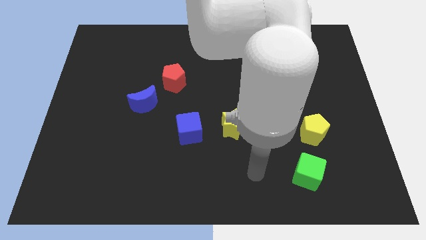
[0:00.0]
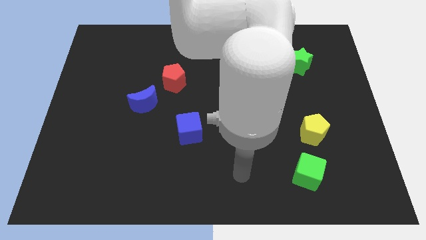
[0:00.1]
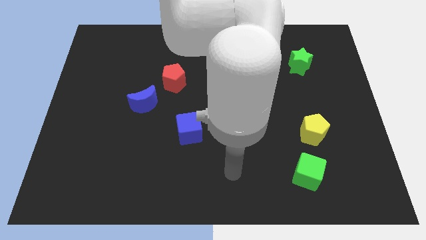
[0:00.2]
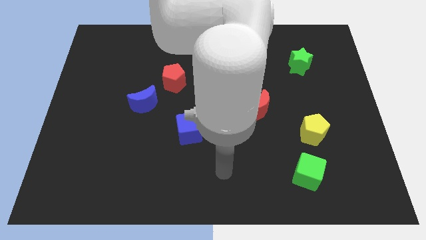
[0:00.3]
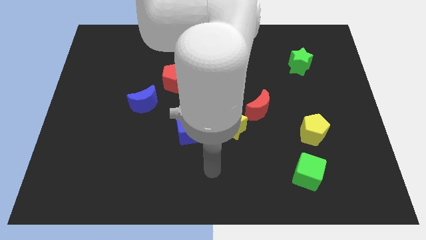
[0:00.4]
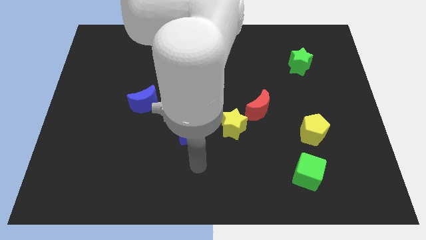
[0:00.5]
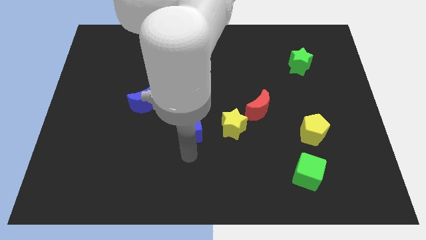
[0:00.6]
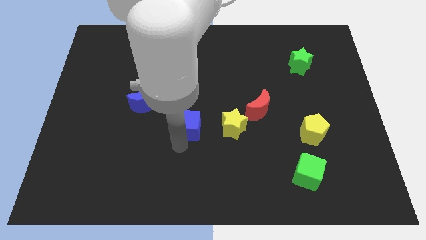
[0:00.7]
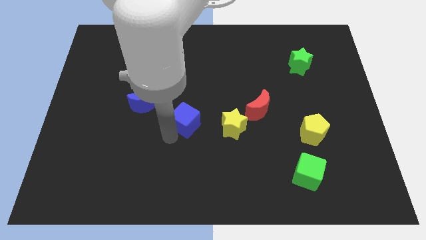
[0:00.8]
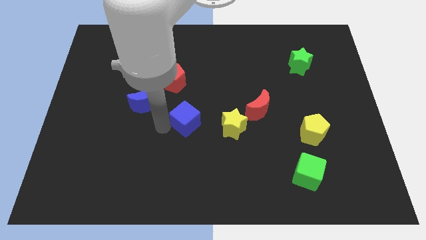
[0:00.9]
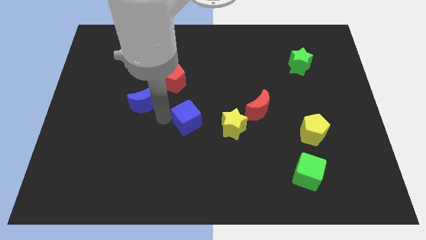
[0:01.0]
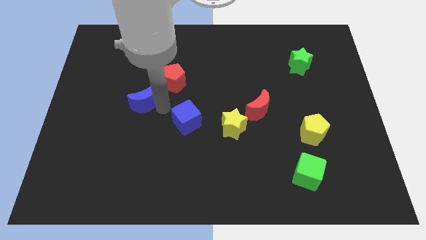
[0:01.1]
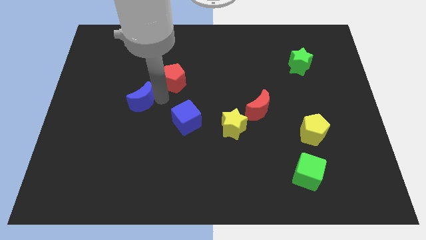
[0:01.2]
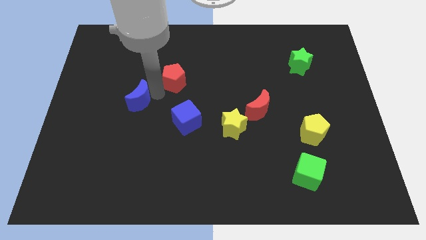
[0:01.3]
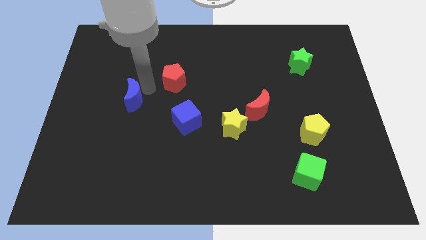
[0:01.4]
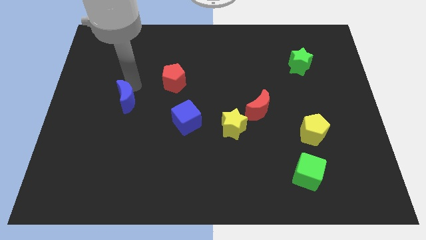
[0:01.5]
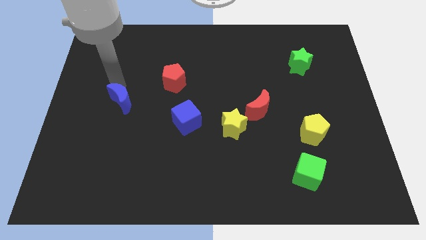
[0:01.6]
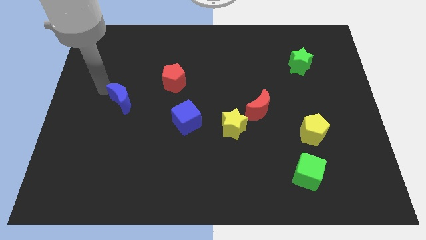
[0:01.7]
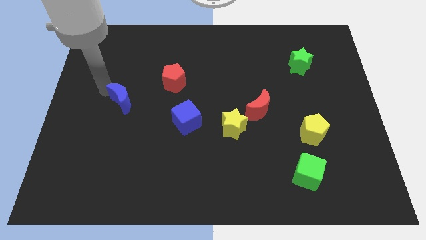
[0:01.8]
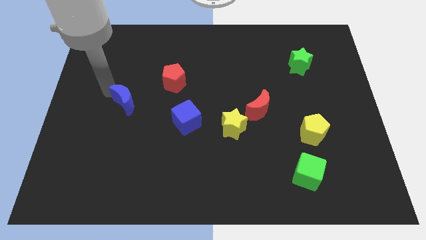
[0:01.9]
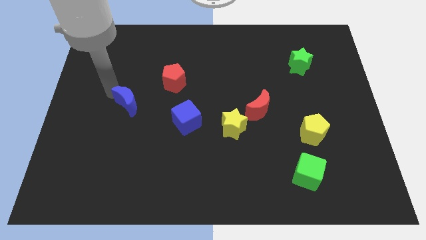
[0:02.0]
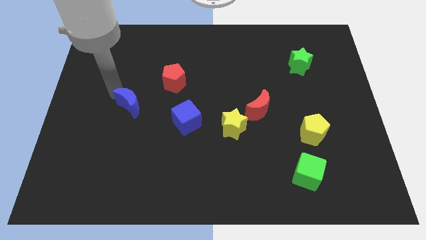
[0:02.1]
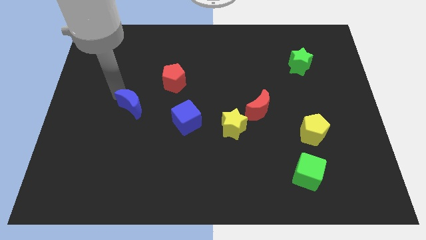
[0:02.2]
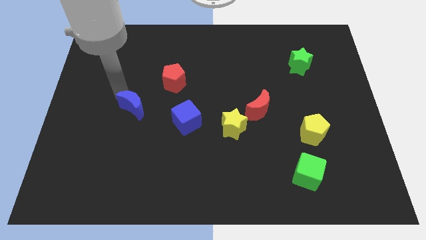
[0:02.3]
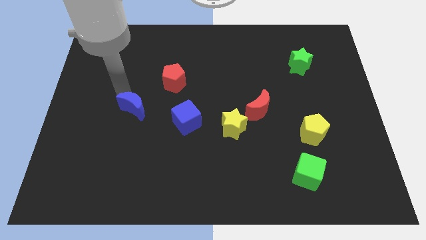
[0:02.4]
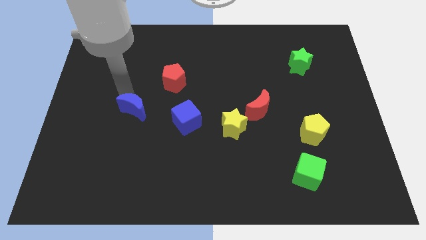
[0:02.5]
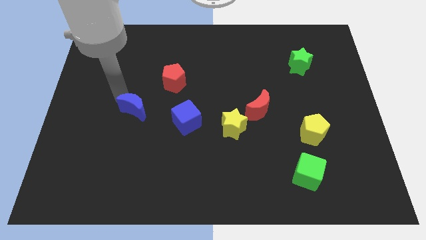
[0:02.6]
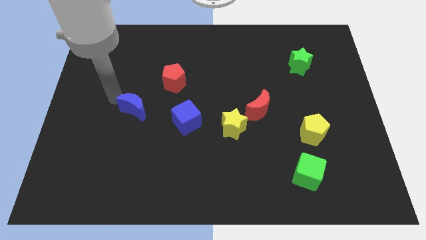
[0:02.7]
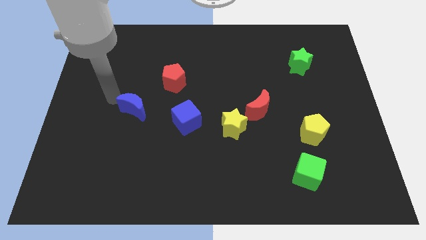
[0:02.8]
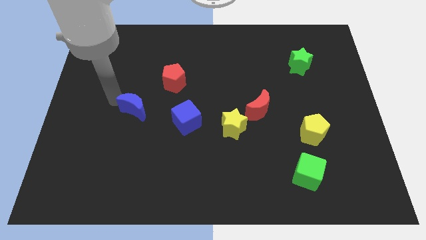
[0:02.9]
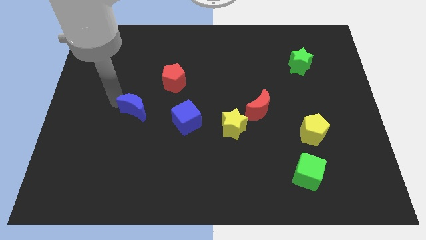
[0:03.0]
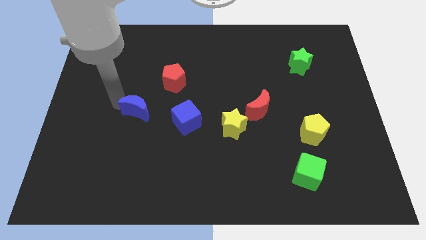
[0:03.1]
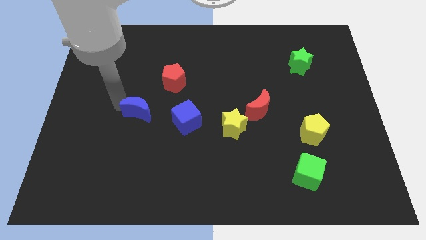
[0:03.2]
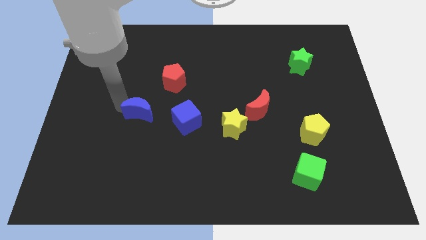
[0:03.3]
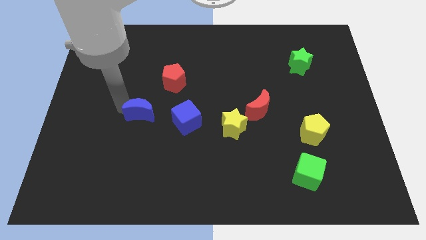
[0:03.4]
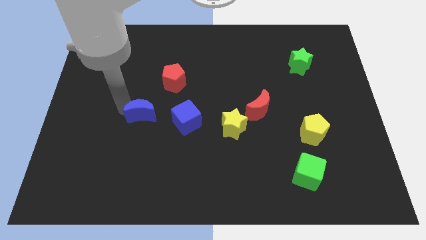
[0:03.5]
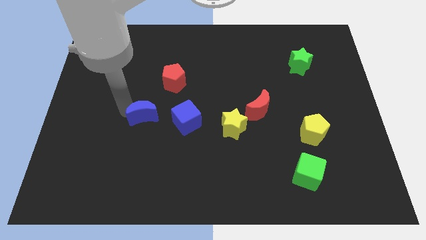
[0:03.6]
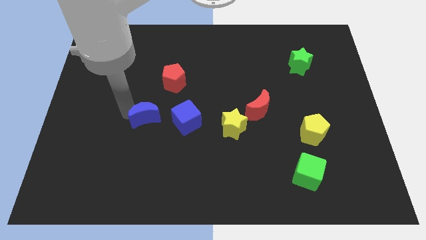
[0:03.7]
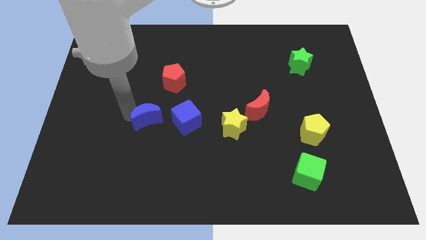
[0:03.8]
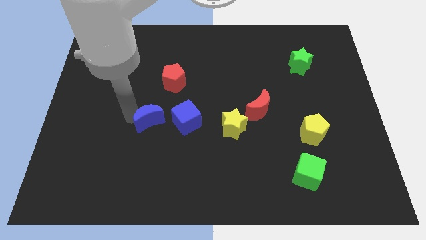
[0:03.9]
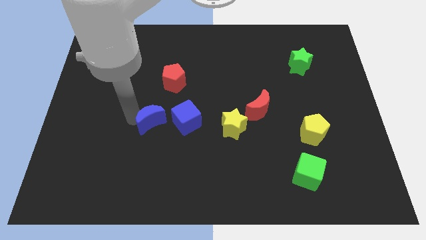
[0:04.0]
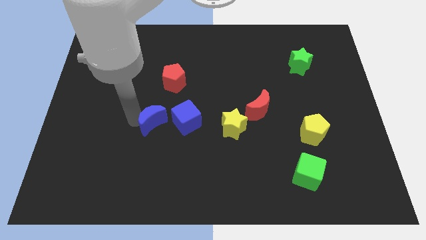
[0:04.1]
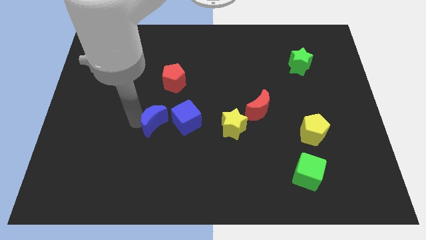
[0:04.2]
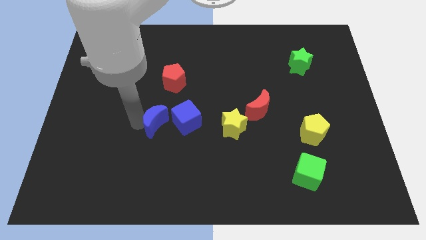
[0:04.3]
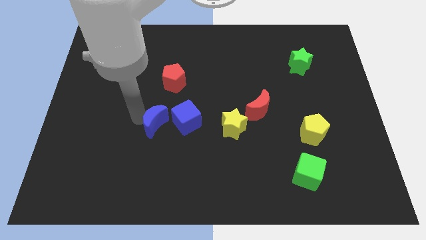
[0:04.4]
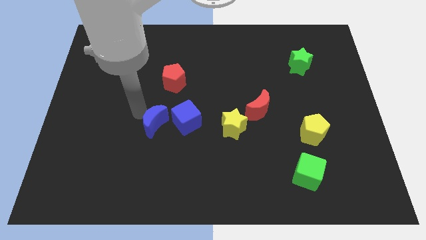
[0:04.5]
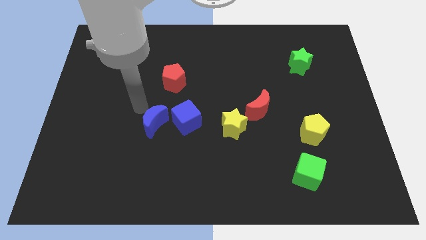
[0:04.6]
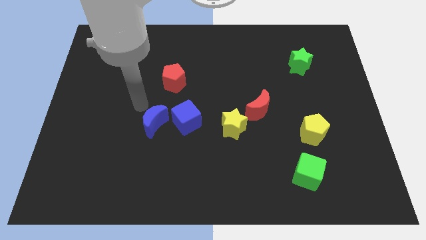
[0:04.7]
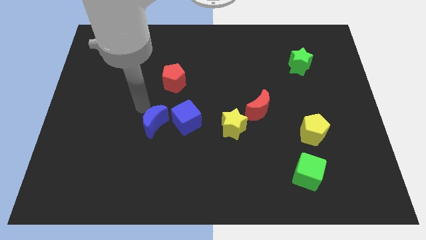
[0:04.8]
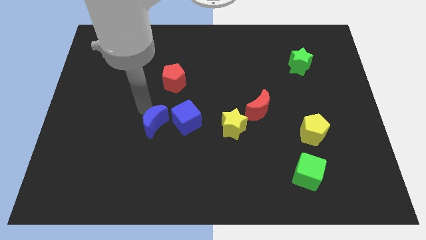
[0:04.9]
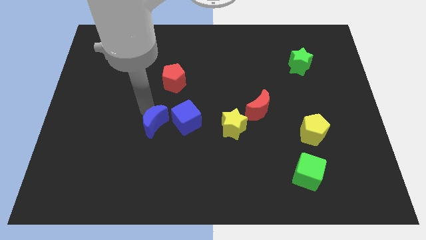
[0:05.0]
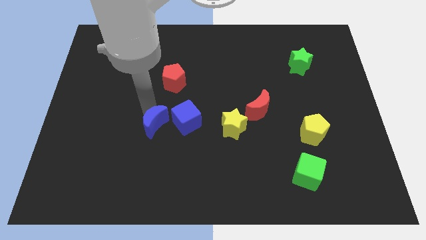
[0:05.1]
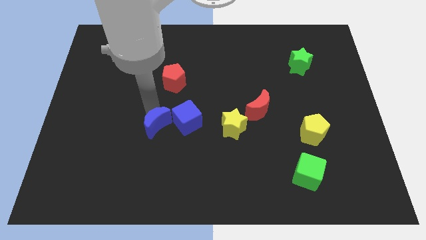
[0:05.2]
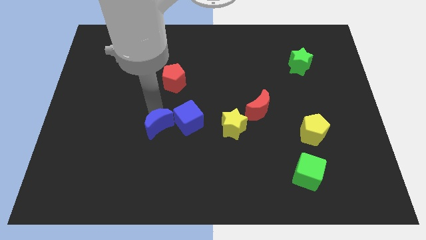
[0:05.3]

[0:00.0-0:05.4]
push the blue moon downwards and to the right diagonally a bit

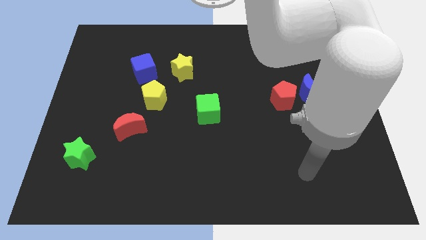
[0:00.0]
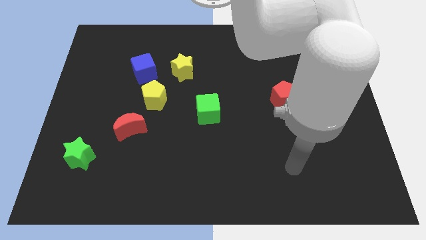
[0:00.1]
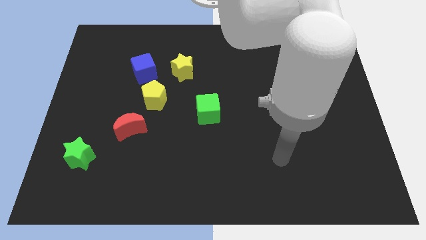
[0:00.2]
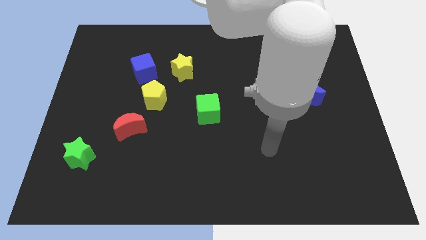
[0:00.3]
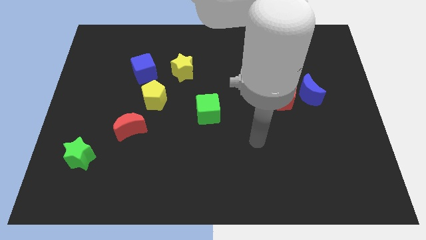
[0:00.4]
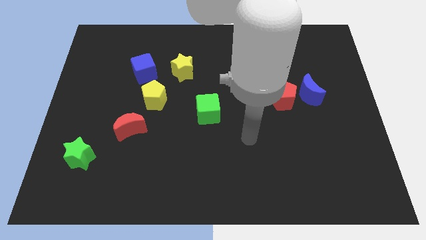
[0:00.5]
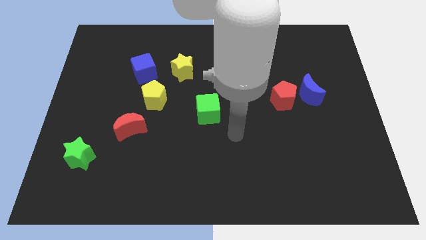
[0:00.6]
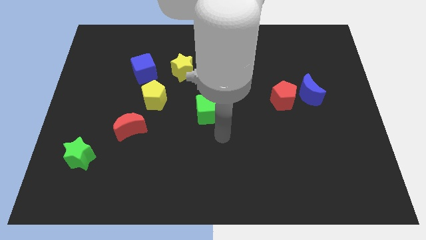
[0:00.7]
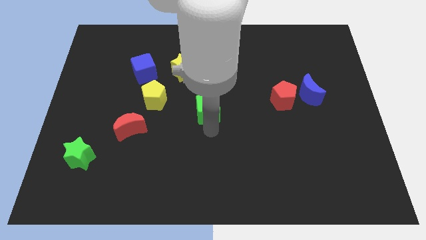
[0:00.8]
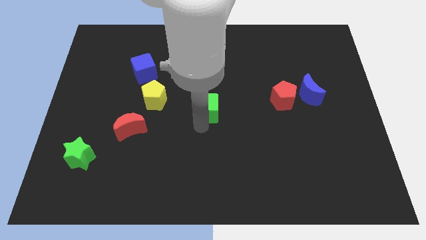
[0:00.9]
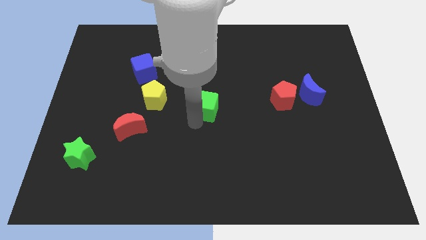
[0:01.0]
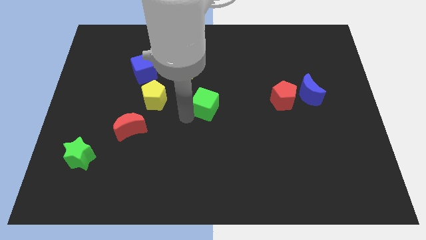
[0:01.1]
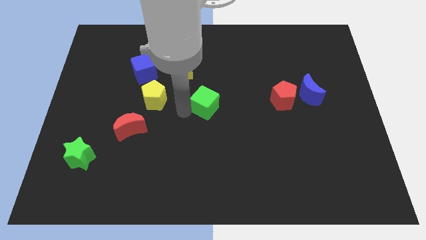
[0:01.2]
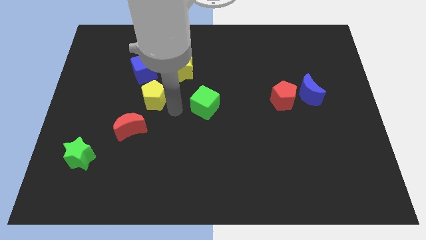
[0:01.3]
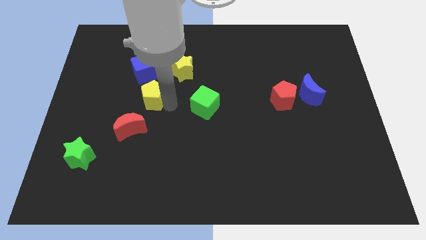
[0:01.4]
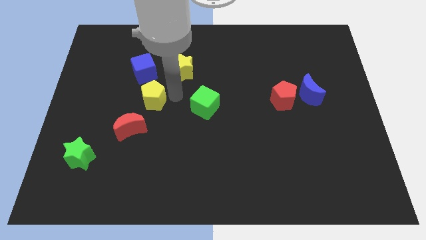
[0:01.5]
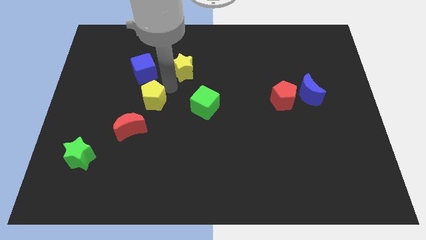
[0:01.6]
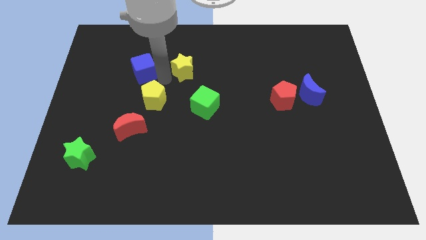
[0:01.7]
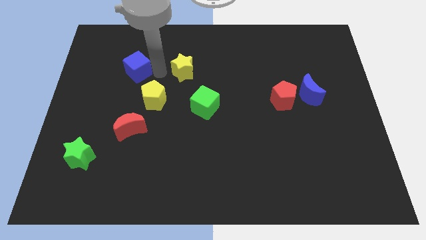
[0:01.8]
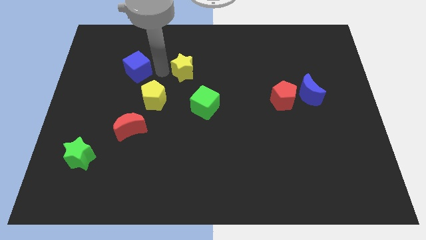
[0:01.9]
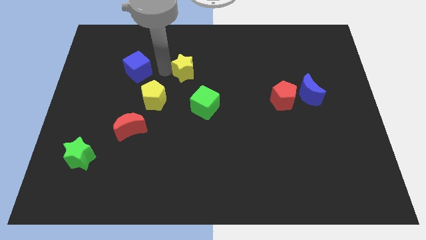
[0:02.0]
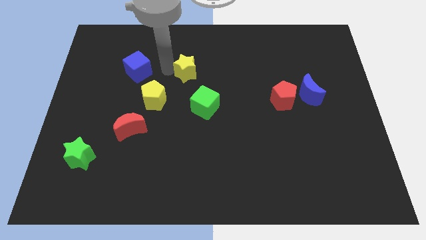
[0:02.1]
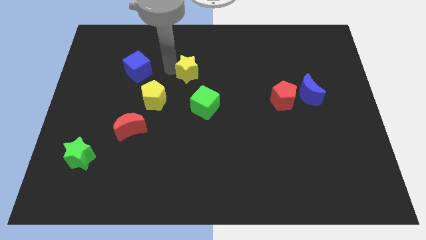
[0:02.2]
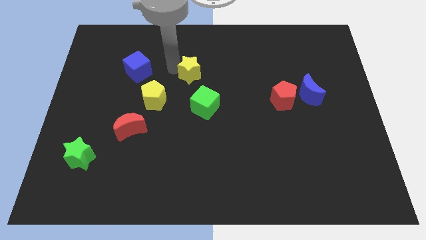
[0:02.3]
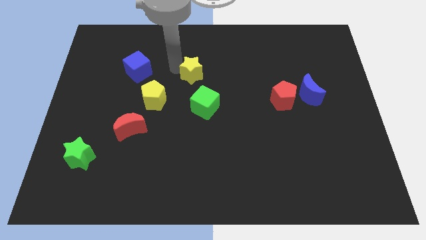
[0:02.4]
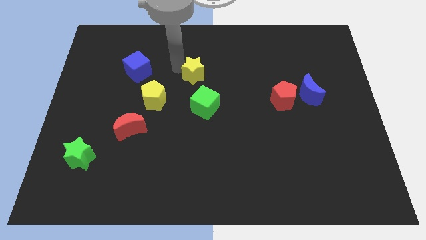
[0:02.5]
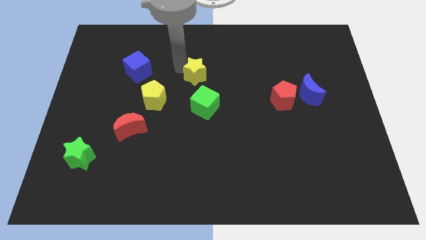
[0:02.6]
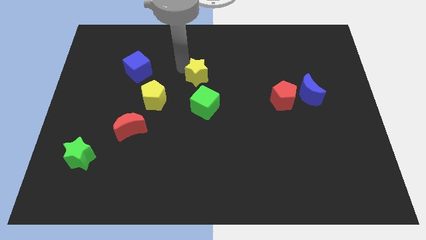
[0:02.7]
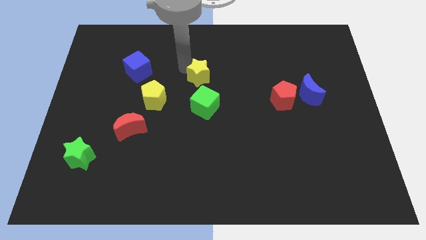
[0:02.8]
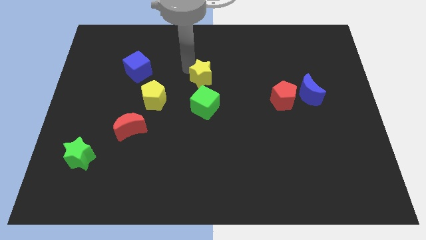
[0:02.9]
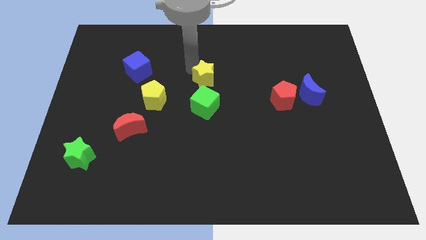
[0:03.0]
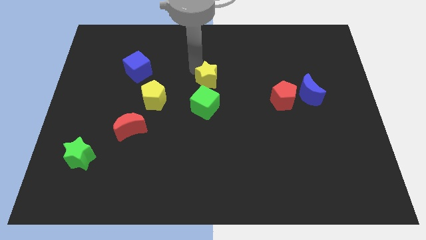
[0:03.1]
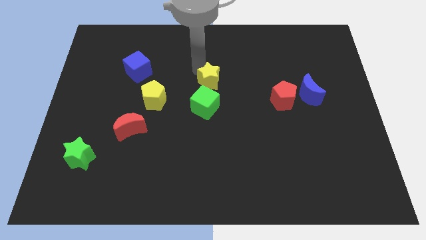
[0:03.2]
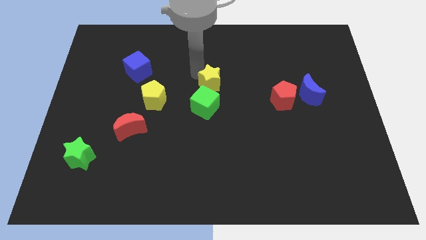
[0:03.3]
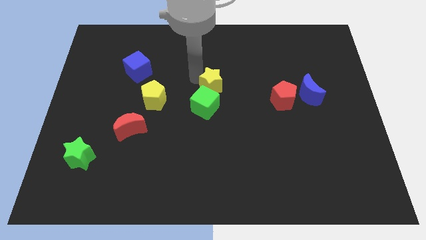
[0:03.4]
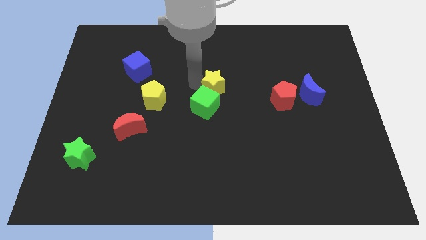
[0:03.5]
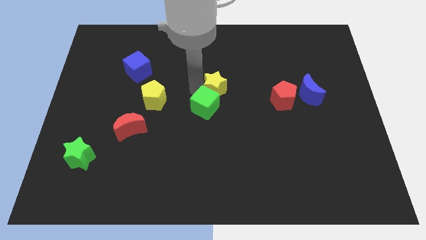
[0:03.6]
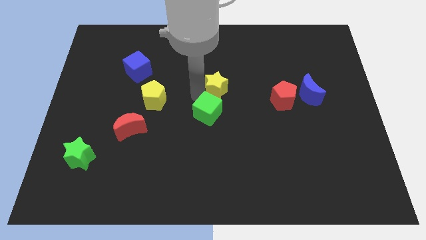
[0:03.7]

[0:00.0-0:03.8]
slide the yellow star a bit right
